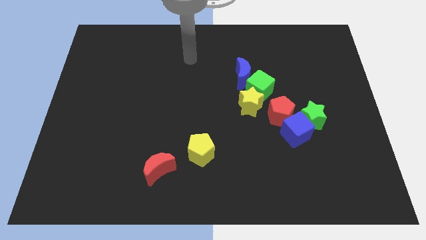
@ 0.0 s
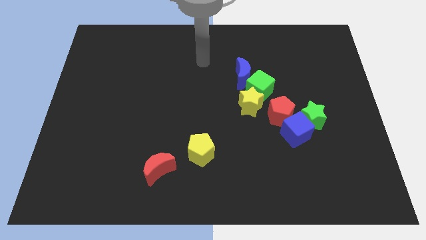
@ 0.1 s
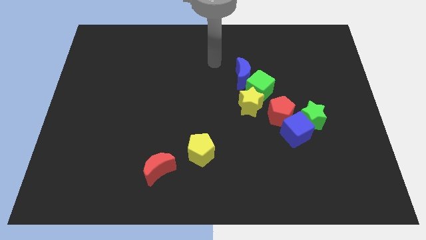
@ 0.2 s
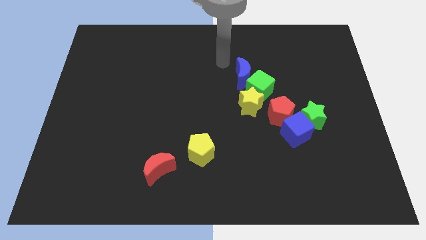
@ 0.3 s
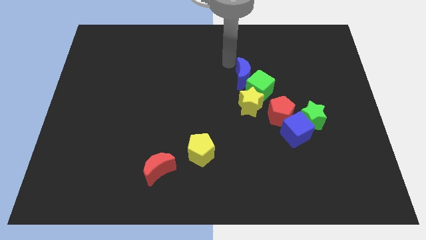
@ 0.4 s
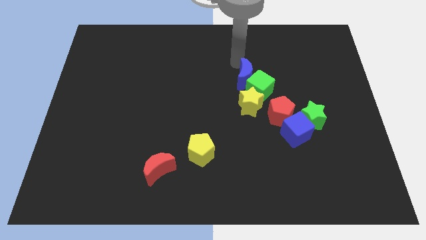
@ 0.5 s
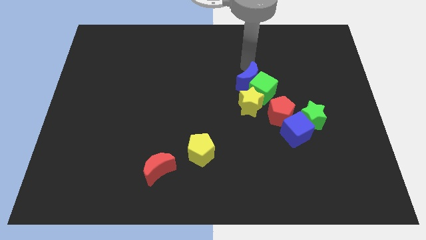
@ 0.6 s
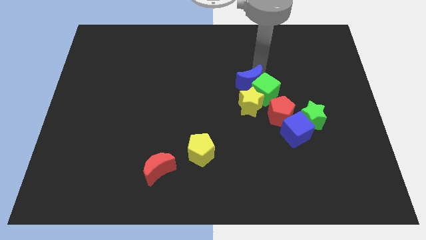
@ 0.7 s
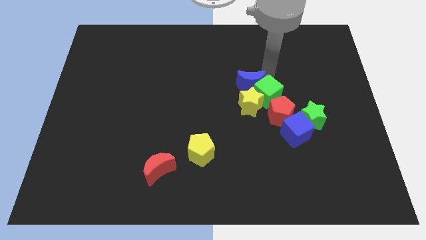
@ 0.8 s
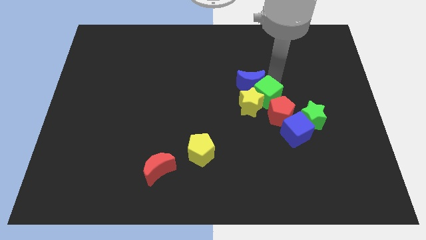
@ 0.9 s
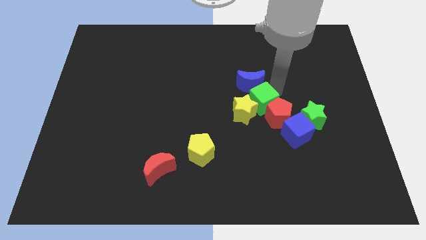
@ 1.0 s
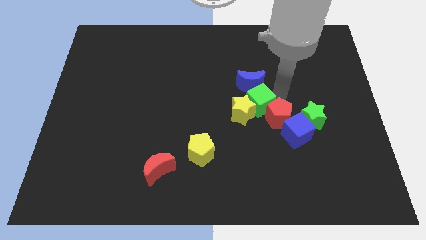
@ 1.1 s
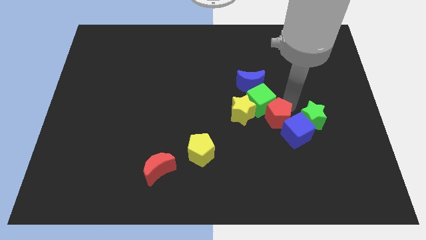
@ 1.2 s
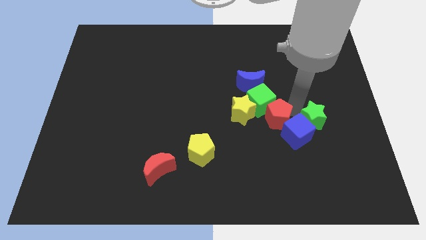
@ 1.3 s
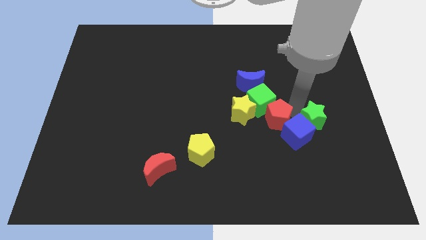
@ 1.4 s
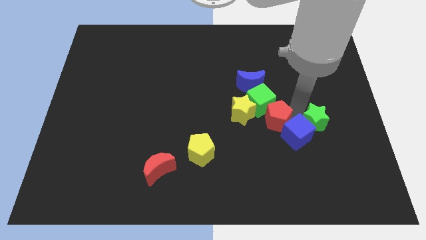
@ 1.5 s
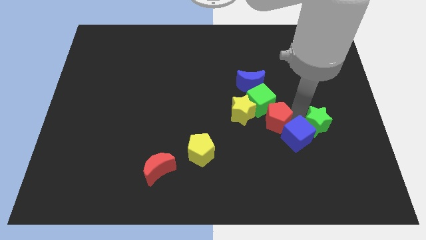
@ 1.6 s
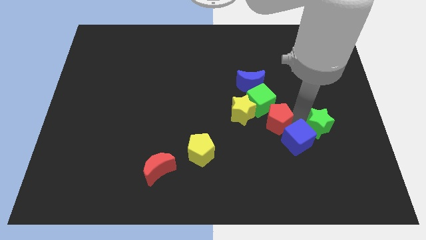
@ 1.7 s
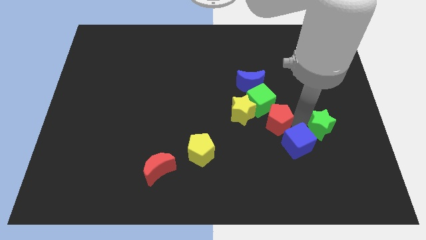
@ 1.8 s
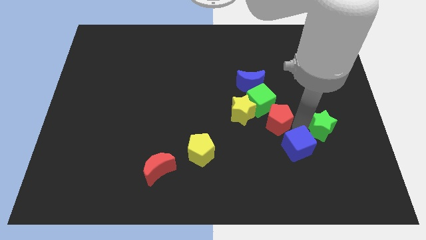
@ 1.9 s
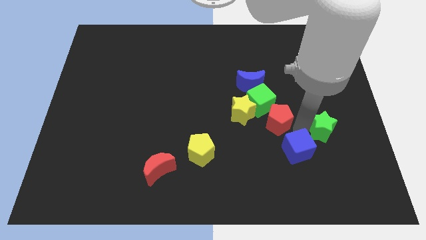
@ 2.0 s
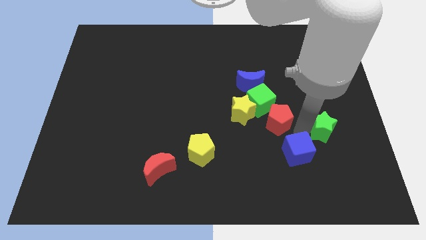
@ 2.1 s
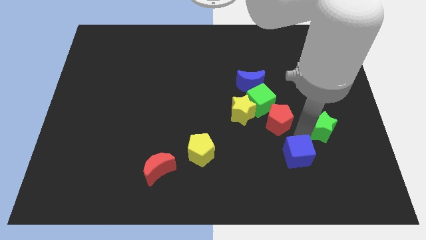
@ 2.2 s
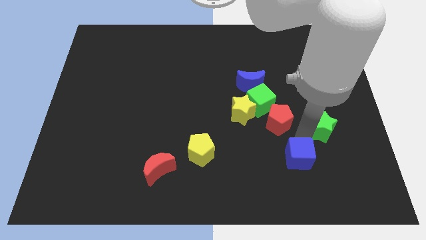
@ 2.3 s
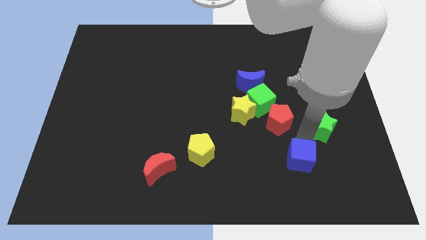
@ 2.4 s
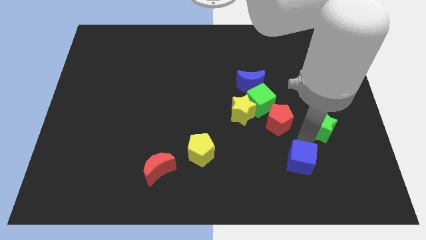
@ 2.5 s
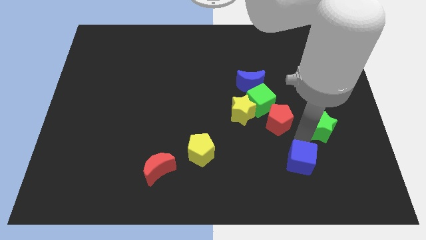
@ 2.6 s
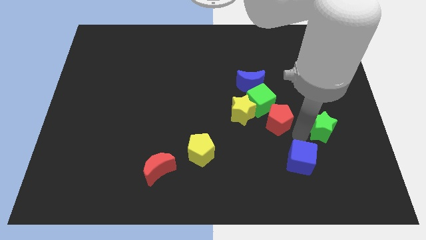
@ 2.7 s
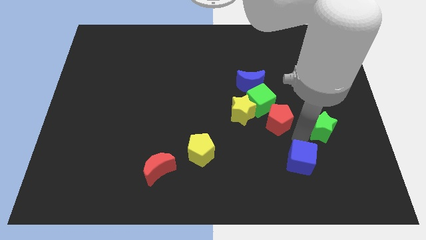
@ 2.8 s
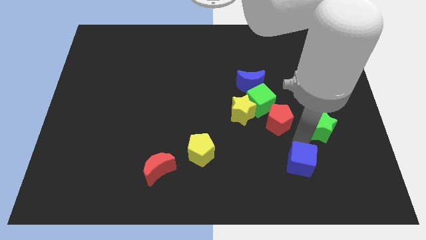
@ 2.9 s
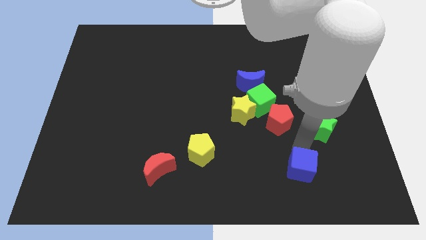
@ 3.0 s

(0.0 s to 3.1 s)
move the blue cube away from the green star and red pentagon

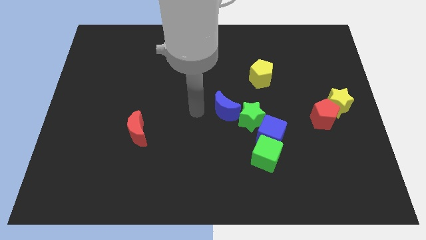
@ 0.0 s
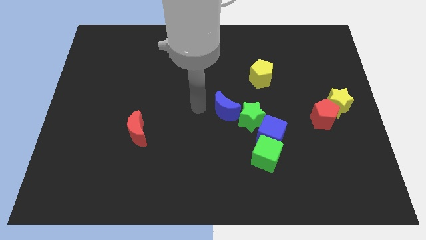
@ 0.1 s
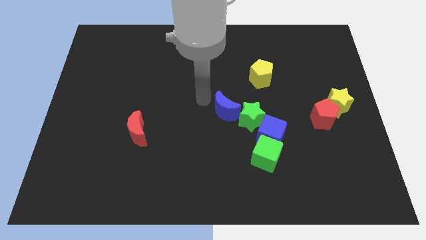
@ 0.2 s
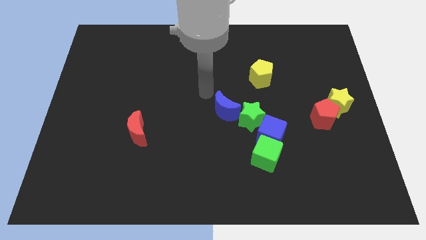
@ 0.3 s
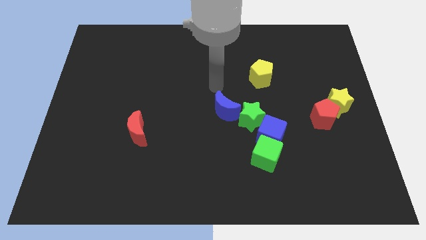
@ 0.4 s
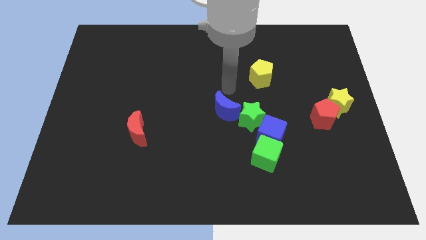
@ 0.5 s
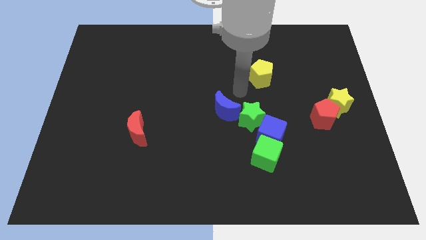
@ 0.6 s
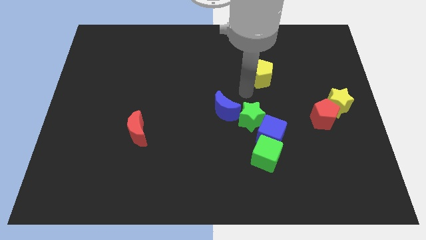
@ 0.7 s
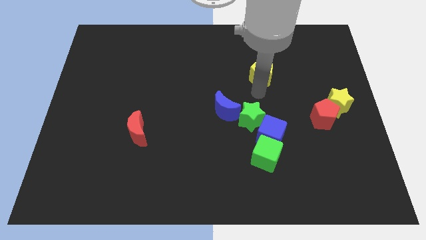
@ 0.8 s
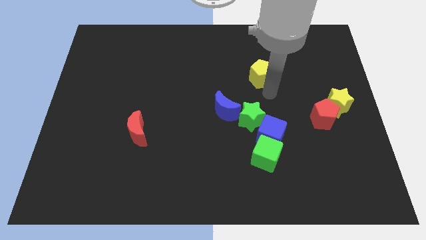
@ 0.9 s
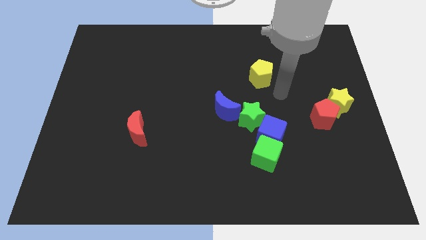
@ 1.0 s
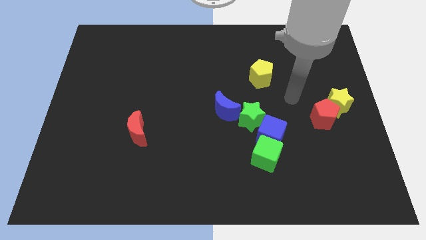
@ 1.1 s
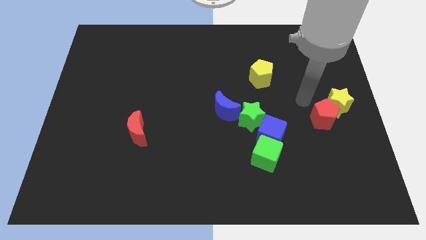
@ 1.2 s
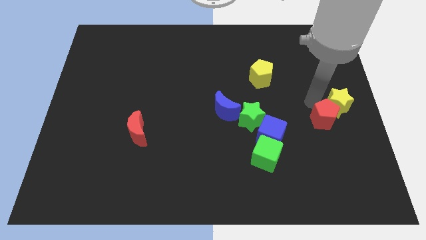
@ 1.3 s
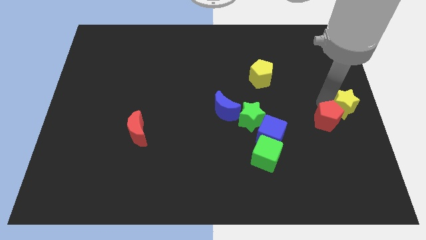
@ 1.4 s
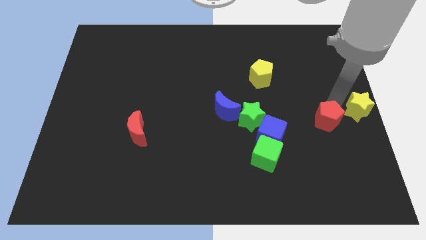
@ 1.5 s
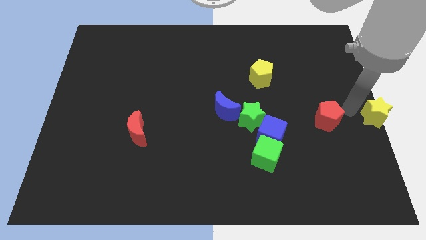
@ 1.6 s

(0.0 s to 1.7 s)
move the red pentagon away from the yellow star

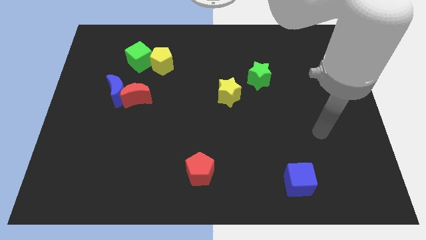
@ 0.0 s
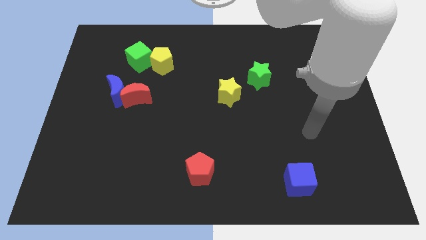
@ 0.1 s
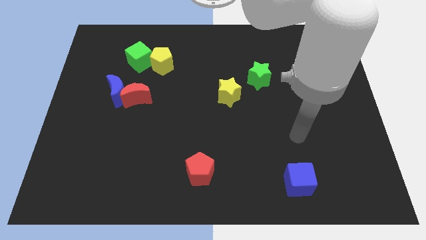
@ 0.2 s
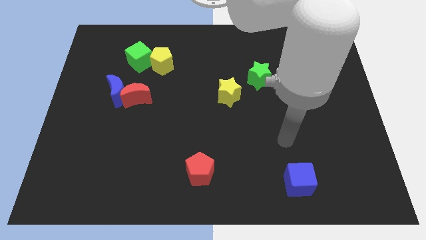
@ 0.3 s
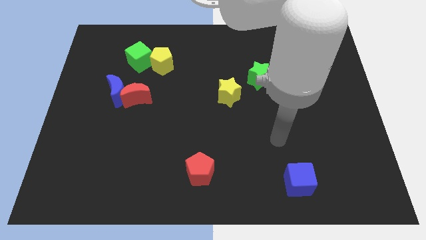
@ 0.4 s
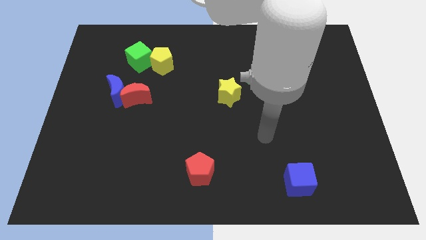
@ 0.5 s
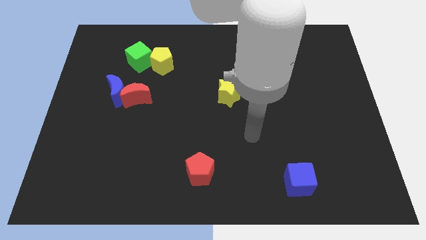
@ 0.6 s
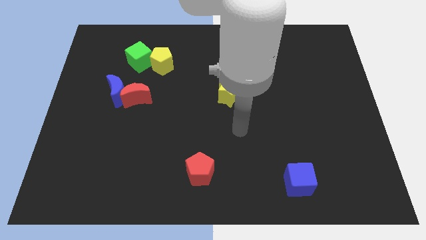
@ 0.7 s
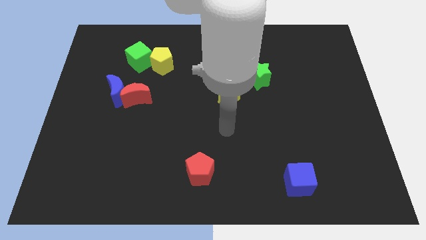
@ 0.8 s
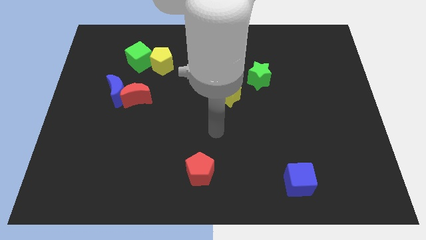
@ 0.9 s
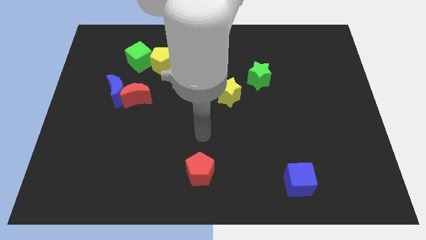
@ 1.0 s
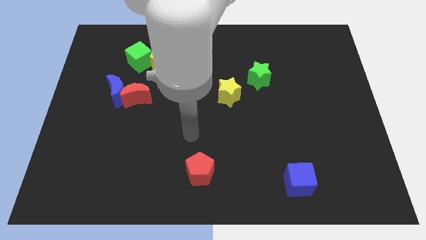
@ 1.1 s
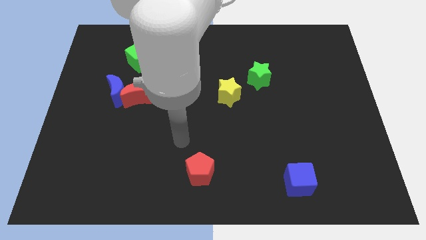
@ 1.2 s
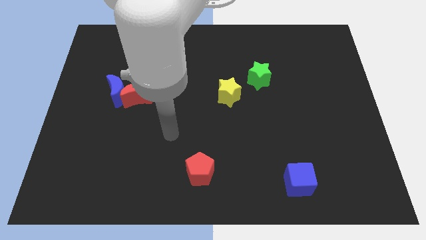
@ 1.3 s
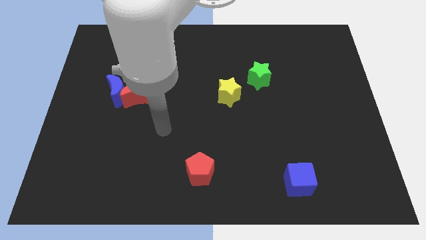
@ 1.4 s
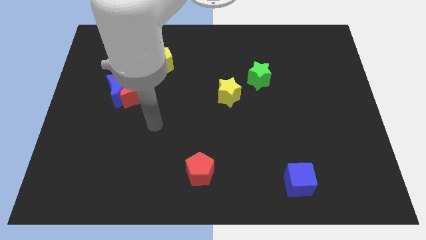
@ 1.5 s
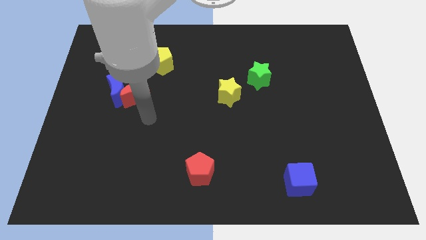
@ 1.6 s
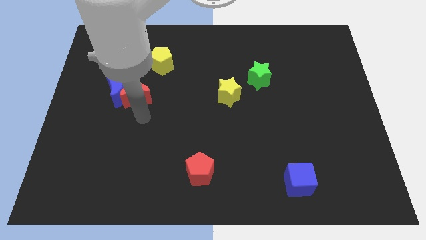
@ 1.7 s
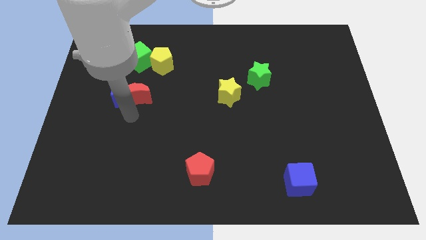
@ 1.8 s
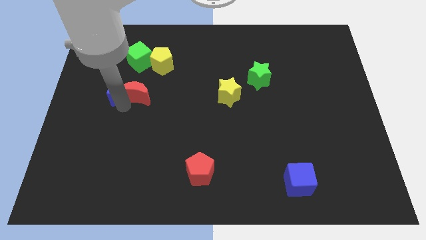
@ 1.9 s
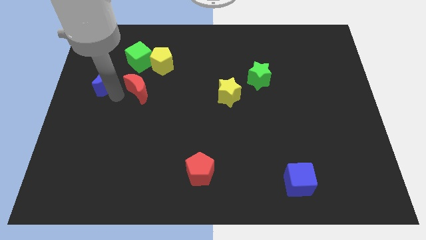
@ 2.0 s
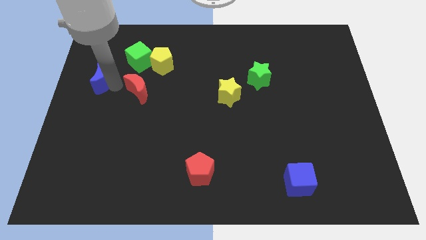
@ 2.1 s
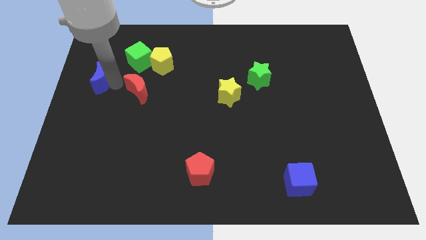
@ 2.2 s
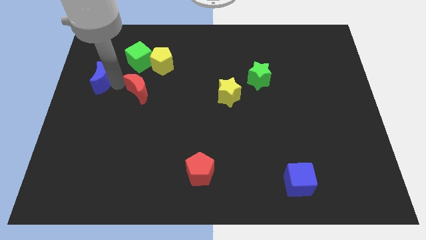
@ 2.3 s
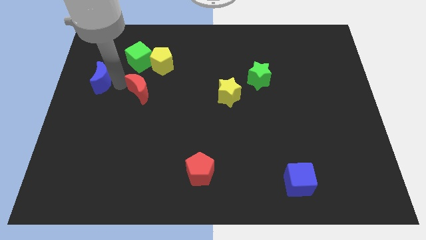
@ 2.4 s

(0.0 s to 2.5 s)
pull the red moon apart from the blue moon

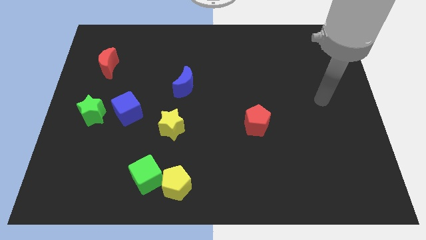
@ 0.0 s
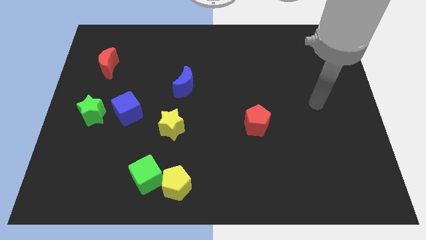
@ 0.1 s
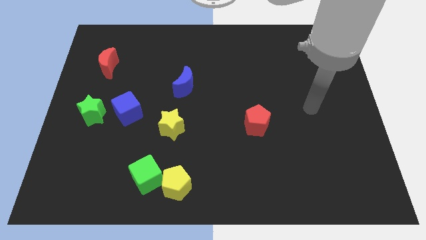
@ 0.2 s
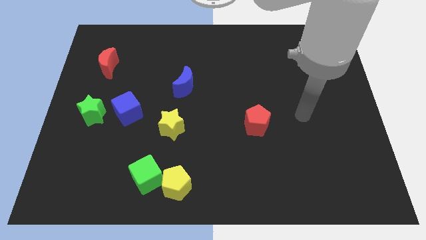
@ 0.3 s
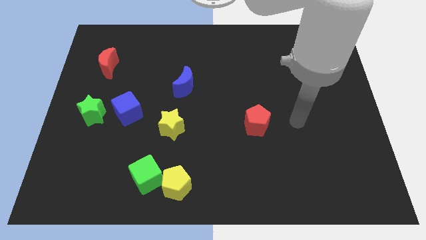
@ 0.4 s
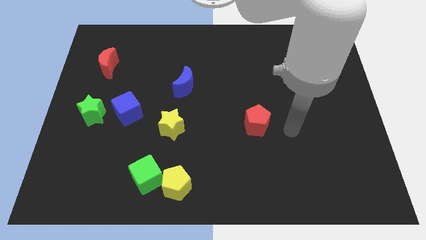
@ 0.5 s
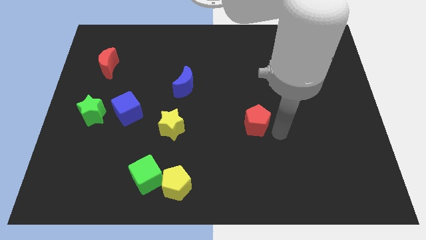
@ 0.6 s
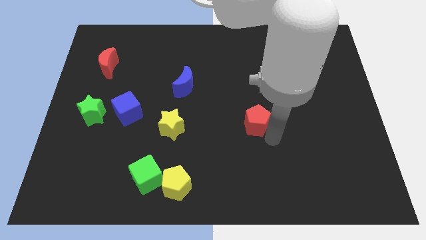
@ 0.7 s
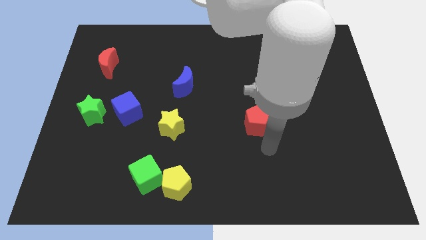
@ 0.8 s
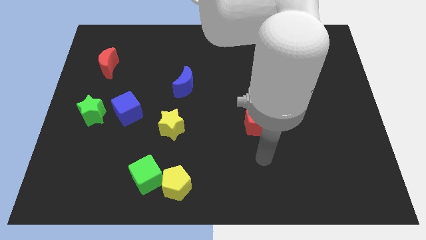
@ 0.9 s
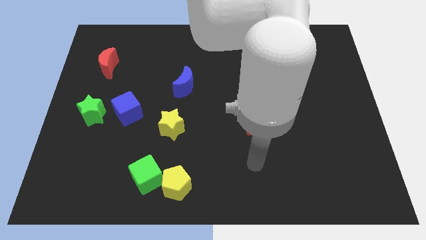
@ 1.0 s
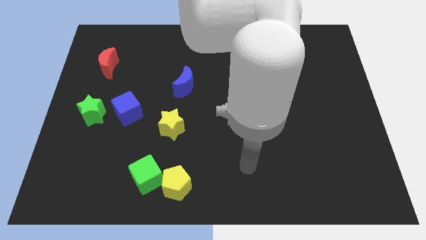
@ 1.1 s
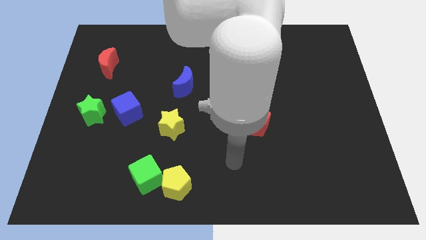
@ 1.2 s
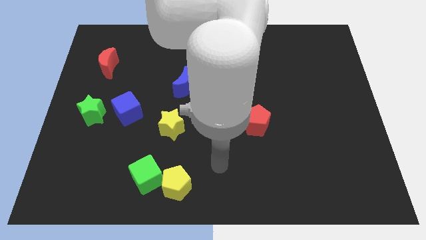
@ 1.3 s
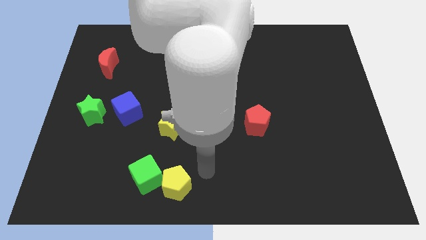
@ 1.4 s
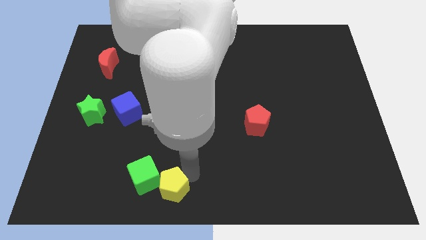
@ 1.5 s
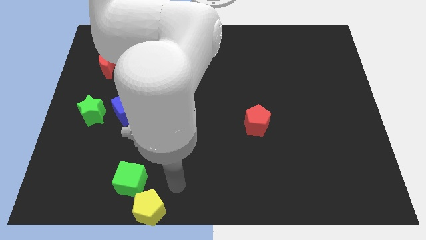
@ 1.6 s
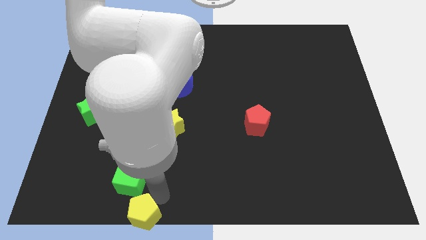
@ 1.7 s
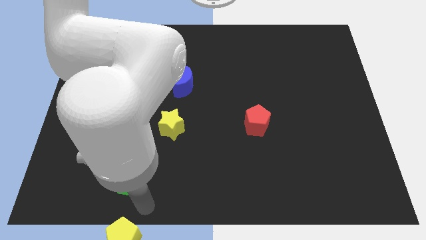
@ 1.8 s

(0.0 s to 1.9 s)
move the green cube away from the yellow pentagon
